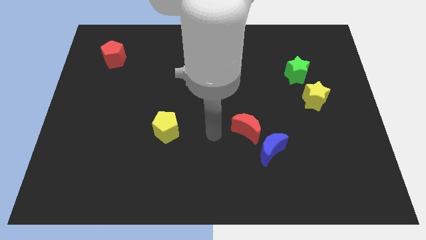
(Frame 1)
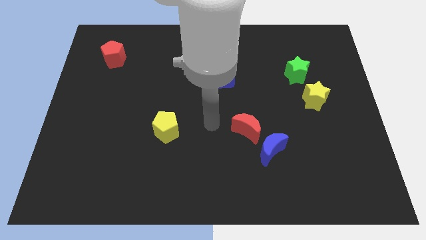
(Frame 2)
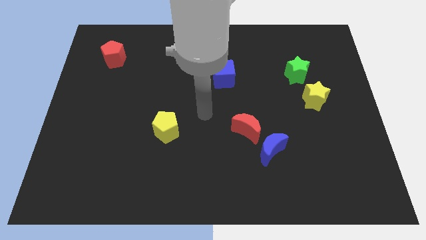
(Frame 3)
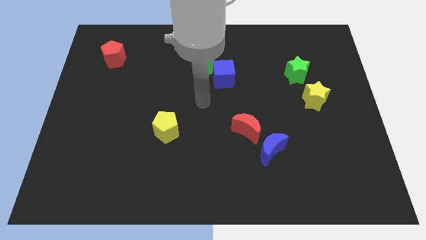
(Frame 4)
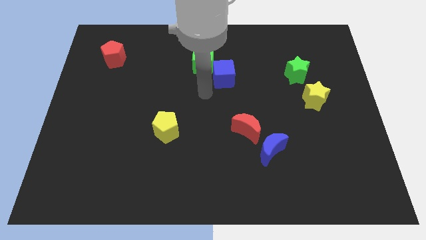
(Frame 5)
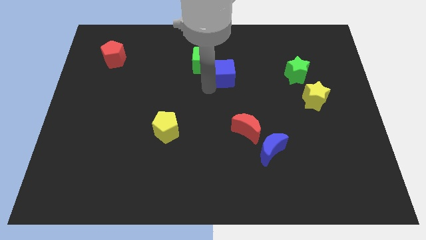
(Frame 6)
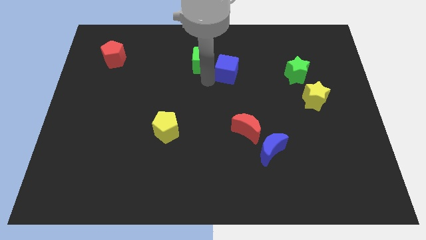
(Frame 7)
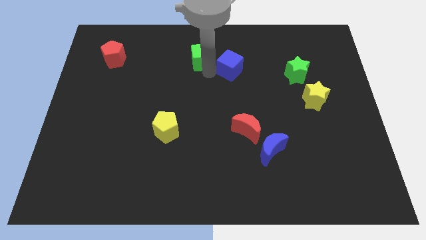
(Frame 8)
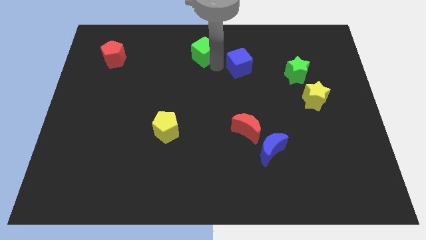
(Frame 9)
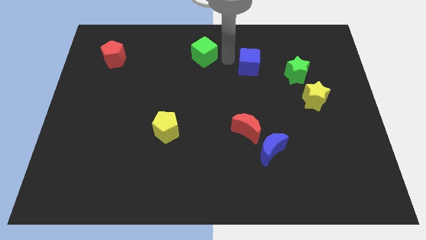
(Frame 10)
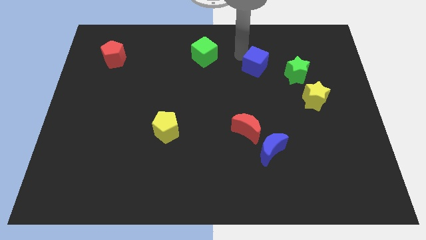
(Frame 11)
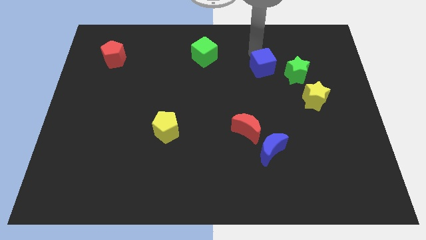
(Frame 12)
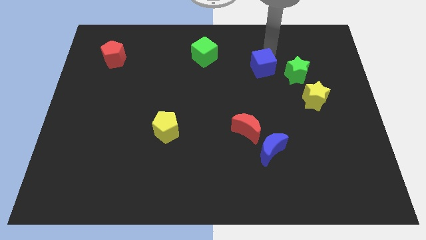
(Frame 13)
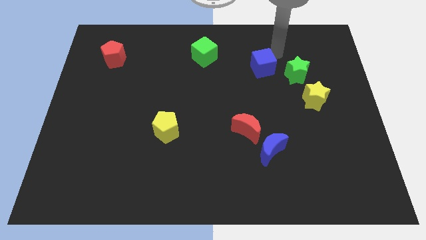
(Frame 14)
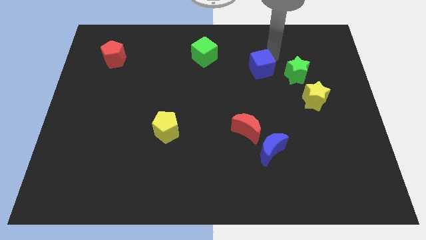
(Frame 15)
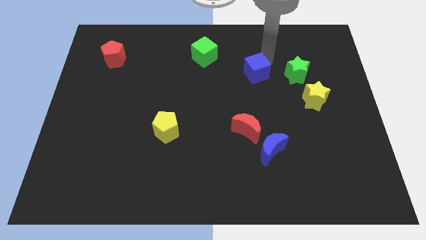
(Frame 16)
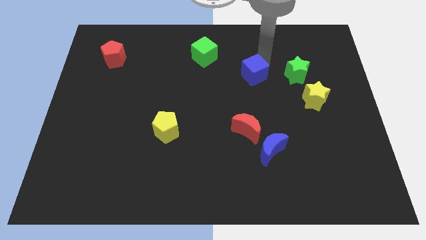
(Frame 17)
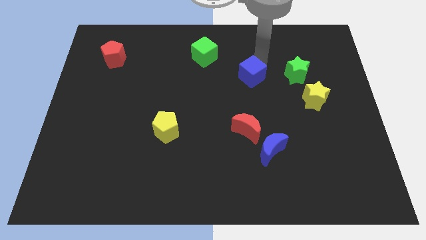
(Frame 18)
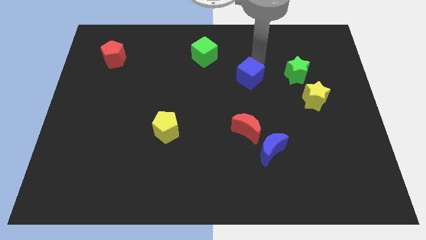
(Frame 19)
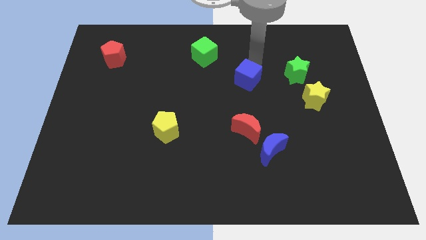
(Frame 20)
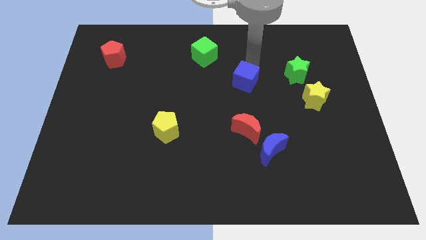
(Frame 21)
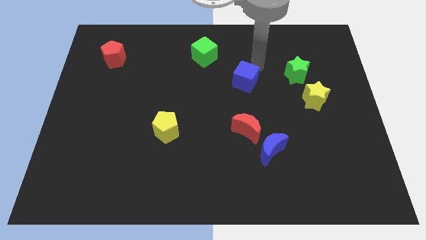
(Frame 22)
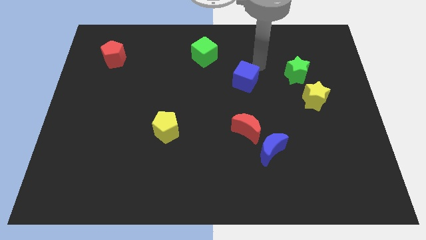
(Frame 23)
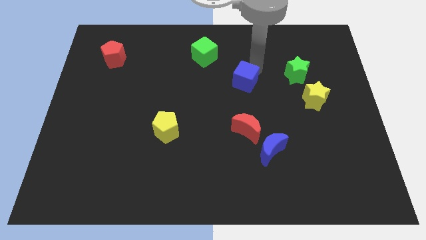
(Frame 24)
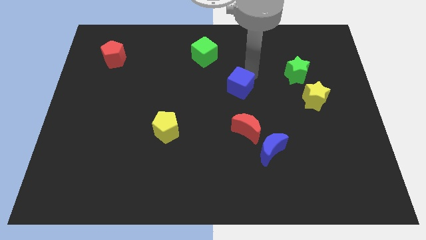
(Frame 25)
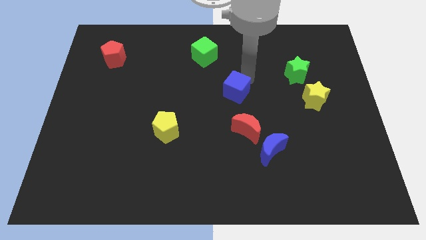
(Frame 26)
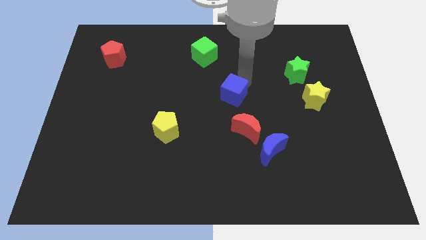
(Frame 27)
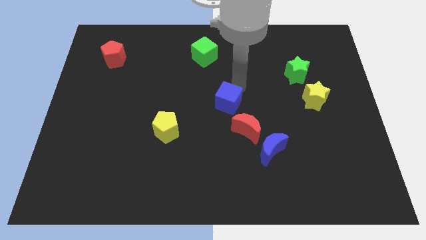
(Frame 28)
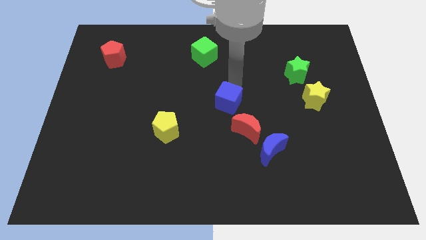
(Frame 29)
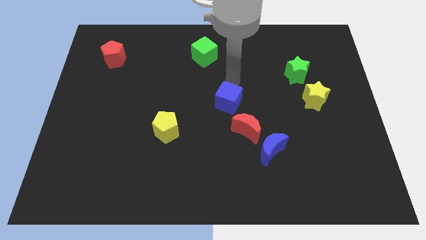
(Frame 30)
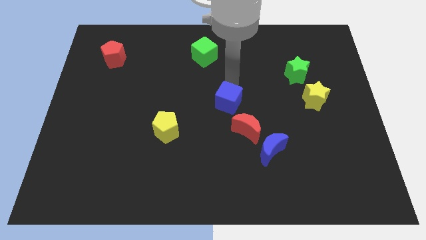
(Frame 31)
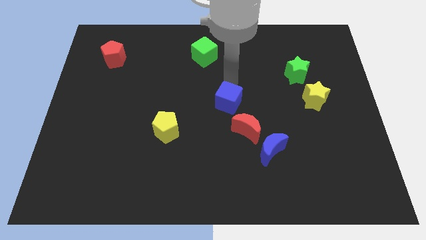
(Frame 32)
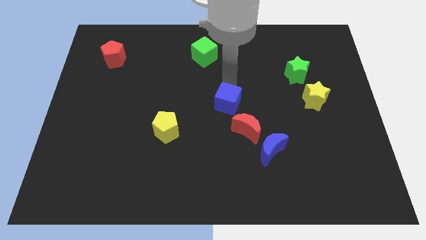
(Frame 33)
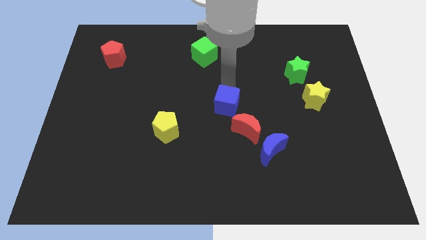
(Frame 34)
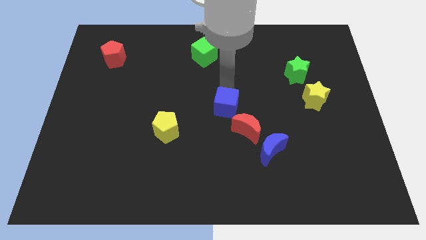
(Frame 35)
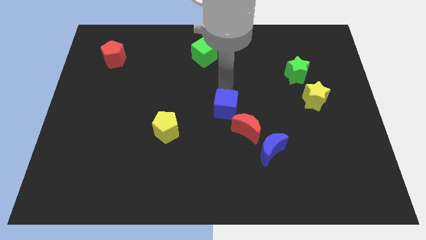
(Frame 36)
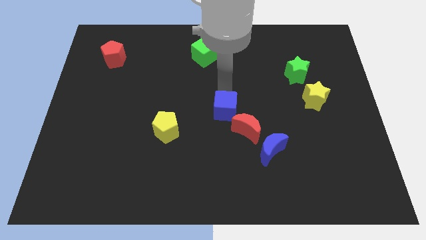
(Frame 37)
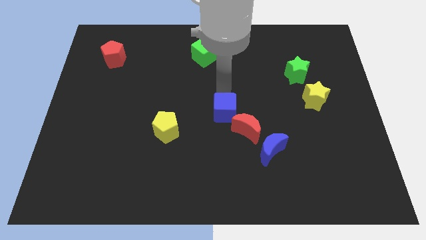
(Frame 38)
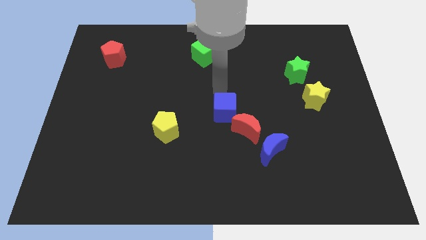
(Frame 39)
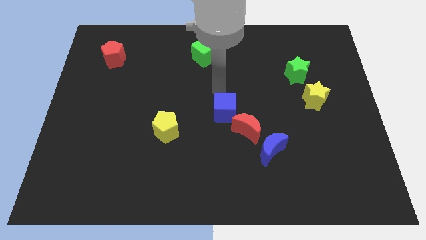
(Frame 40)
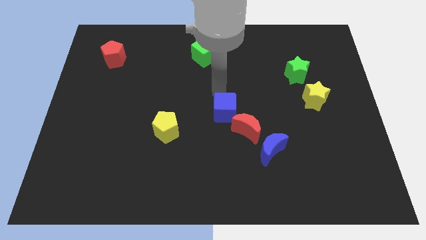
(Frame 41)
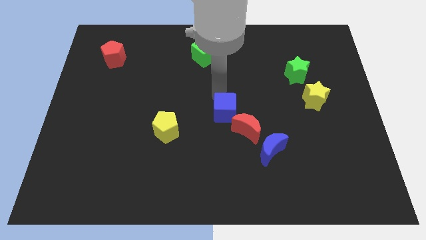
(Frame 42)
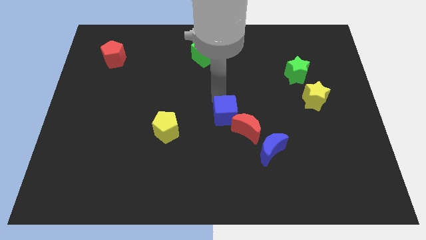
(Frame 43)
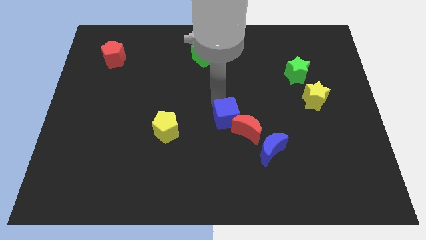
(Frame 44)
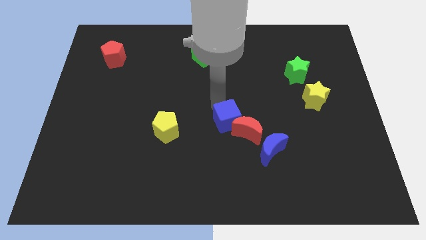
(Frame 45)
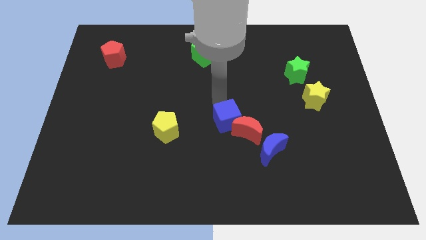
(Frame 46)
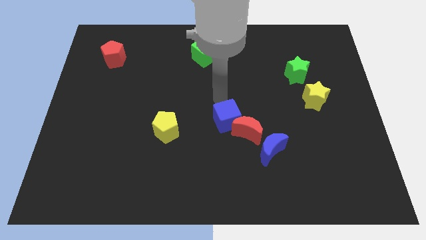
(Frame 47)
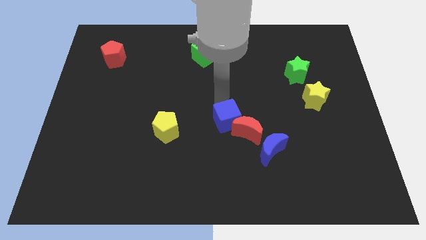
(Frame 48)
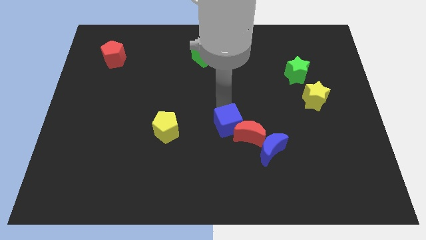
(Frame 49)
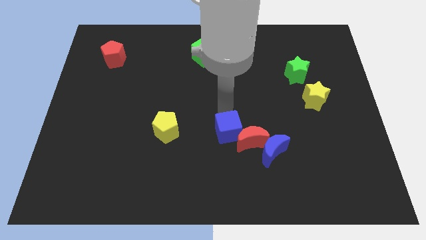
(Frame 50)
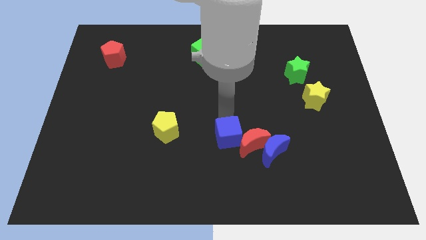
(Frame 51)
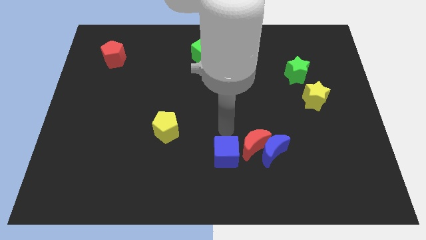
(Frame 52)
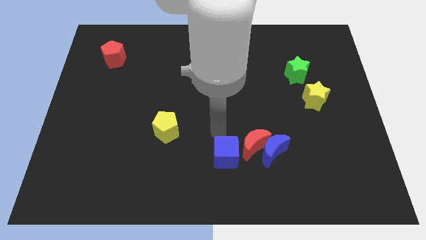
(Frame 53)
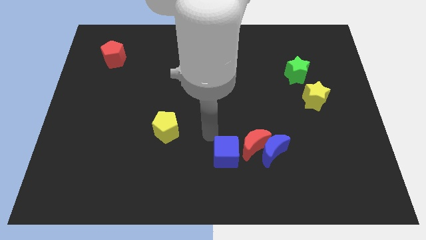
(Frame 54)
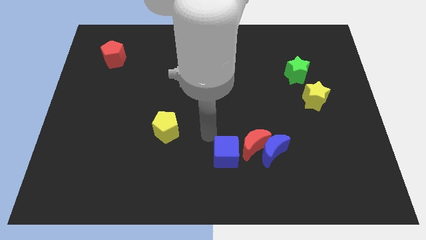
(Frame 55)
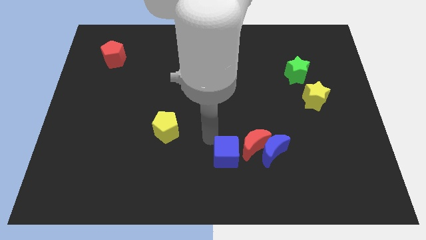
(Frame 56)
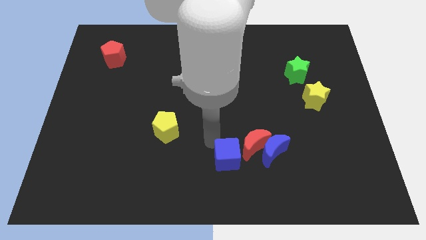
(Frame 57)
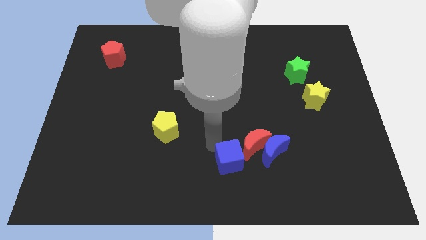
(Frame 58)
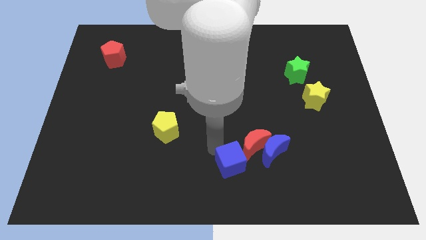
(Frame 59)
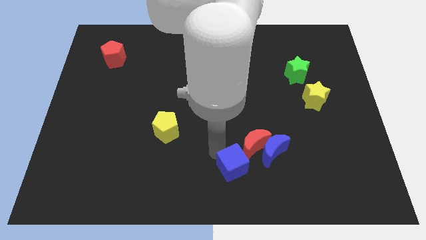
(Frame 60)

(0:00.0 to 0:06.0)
push the blue cube to the bottom of the red moon

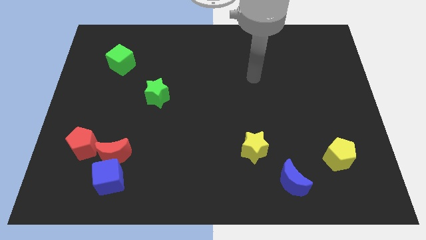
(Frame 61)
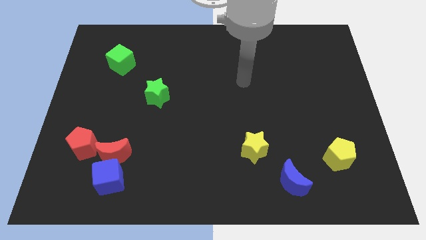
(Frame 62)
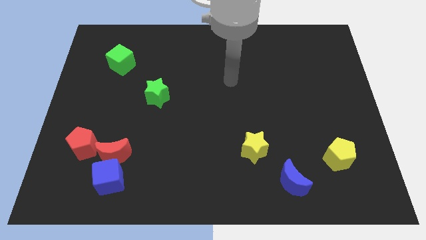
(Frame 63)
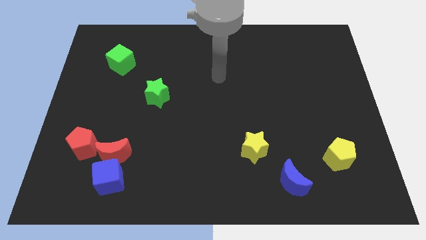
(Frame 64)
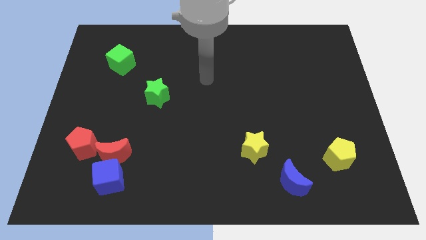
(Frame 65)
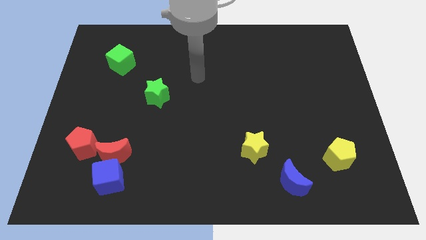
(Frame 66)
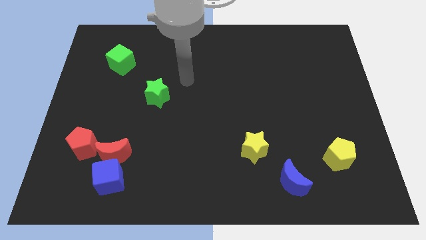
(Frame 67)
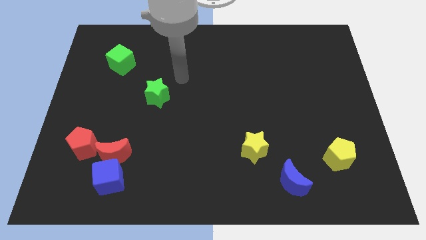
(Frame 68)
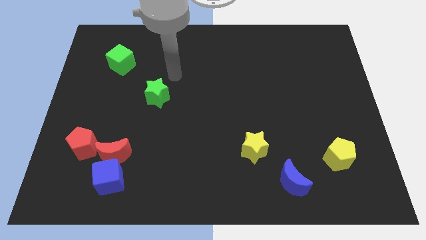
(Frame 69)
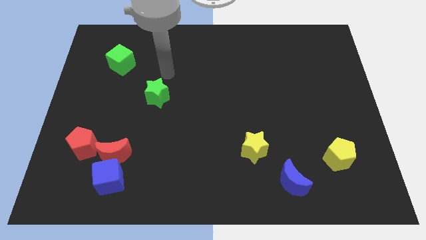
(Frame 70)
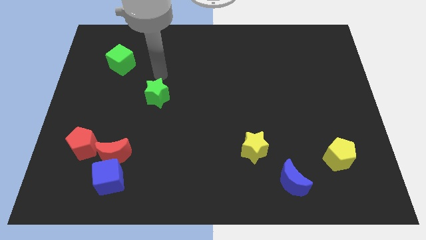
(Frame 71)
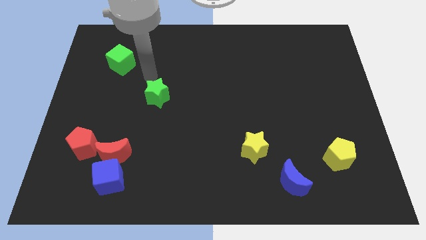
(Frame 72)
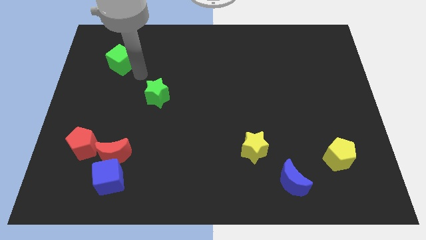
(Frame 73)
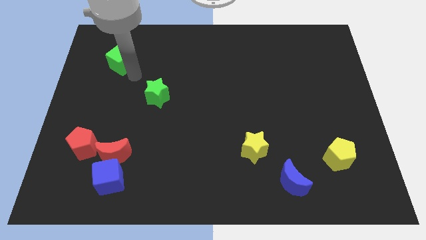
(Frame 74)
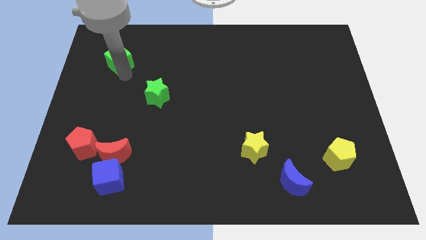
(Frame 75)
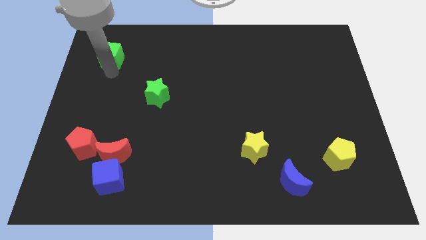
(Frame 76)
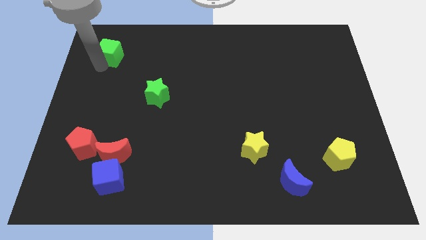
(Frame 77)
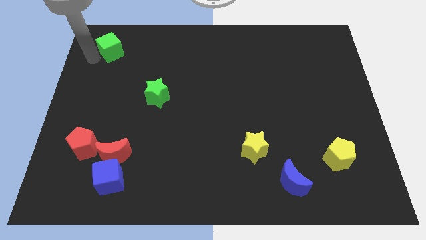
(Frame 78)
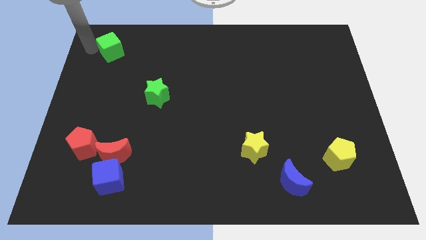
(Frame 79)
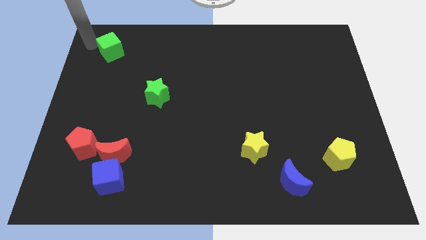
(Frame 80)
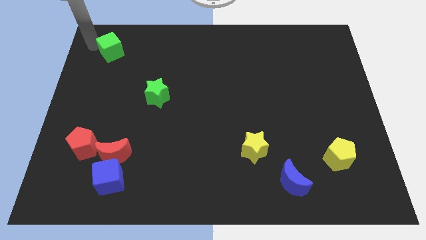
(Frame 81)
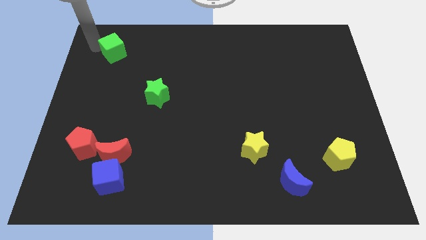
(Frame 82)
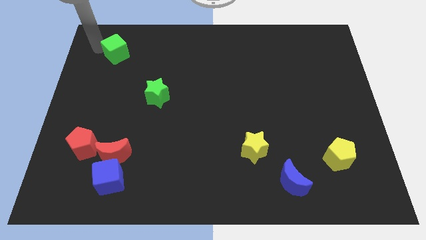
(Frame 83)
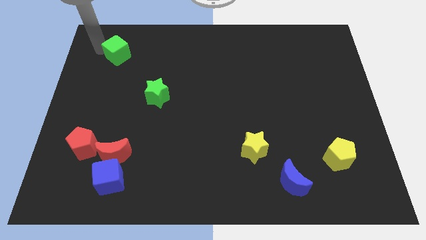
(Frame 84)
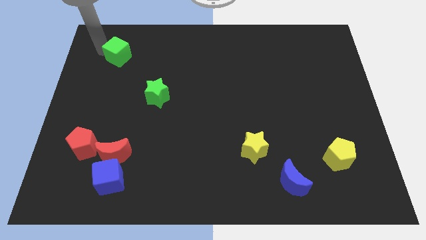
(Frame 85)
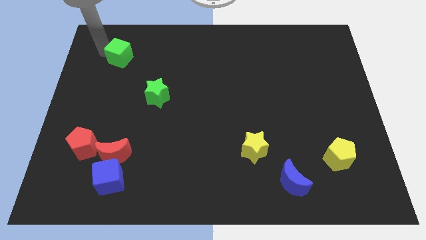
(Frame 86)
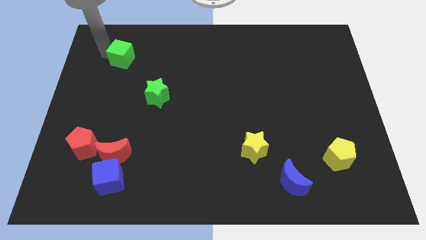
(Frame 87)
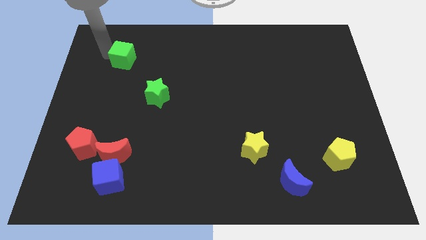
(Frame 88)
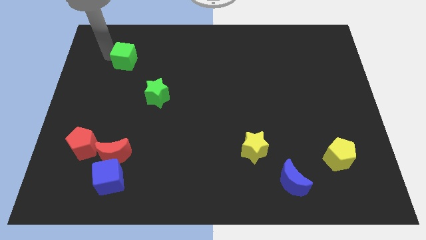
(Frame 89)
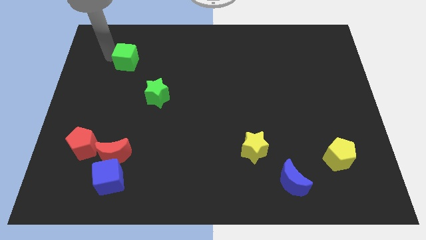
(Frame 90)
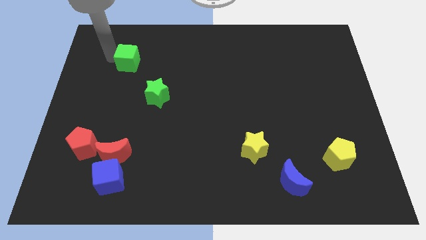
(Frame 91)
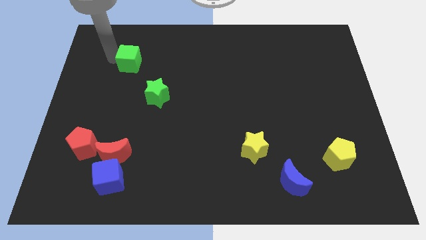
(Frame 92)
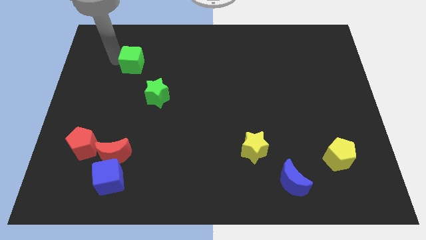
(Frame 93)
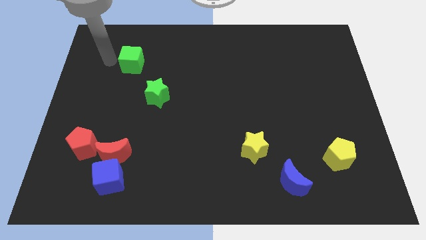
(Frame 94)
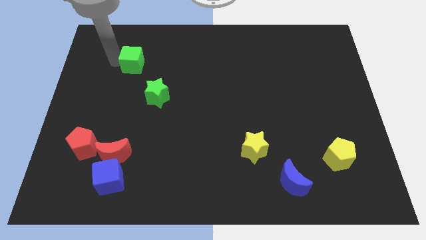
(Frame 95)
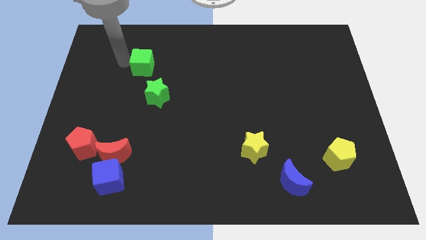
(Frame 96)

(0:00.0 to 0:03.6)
move the green cube to the top side of the green star
